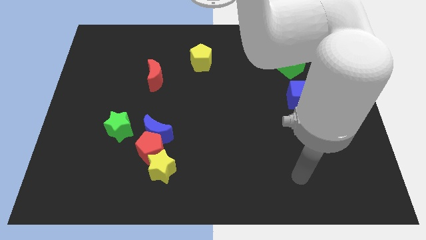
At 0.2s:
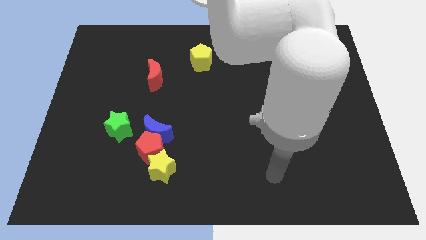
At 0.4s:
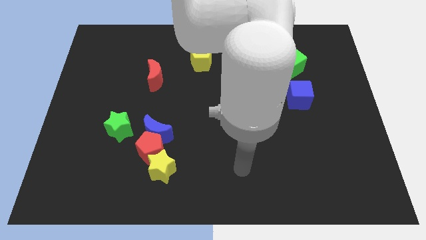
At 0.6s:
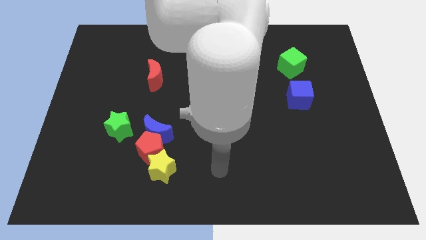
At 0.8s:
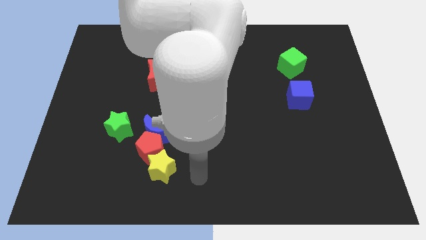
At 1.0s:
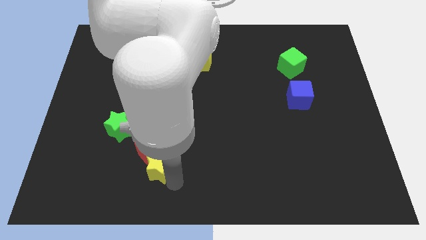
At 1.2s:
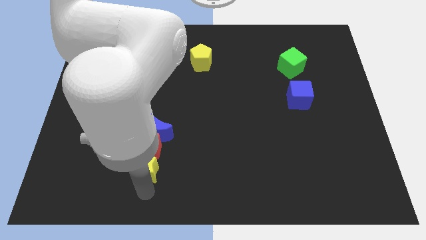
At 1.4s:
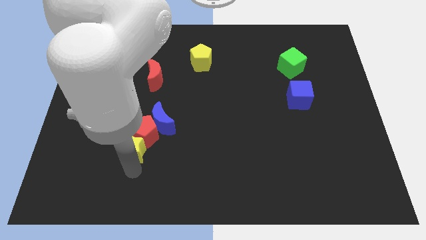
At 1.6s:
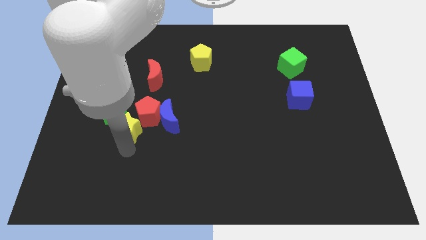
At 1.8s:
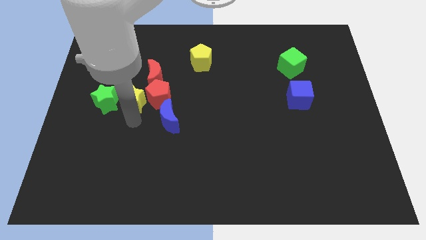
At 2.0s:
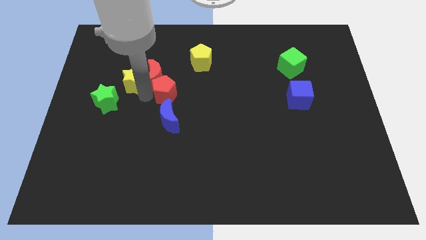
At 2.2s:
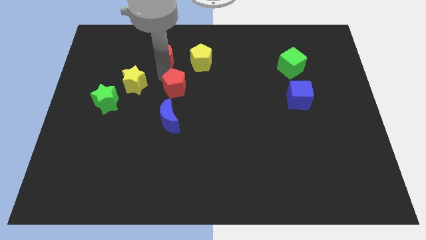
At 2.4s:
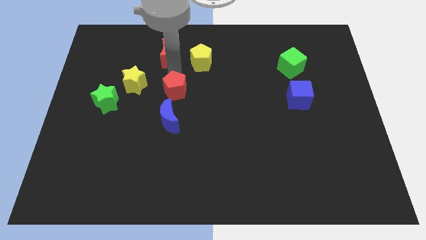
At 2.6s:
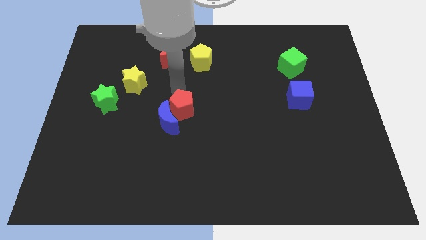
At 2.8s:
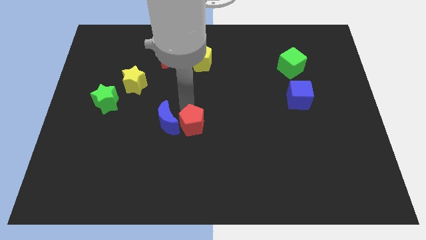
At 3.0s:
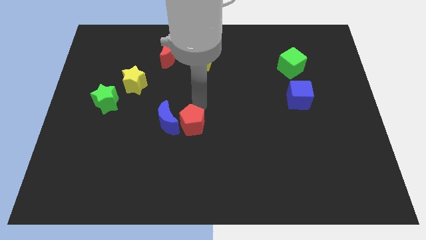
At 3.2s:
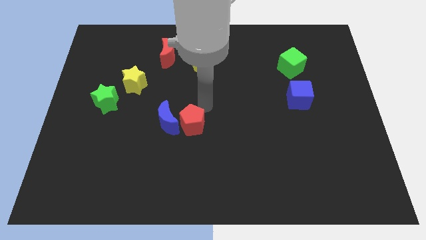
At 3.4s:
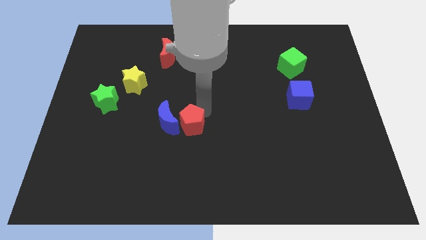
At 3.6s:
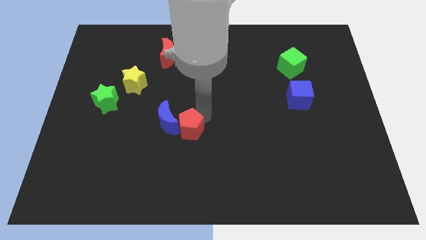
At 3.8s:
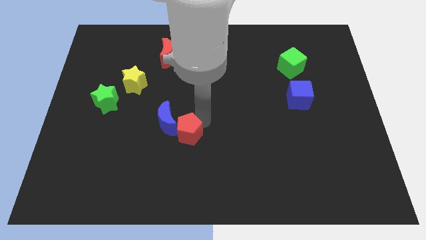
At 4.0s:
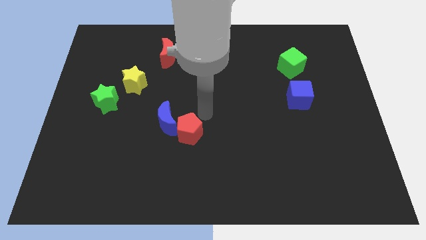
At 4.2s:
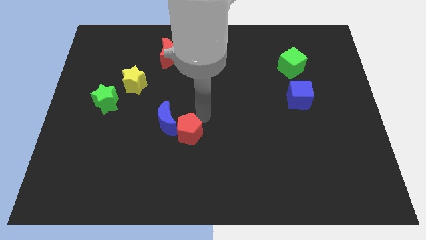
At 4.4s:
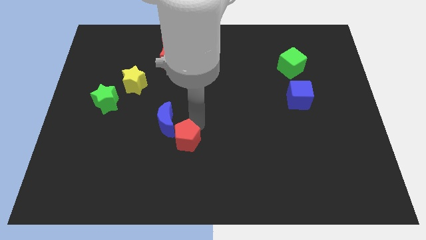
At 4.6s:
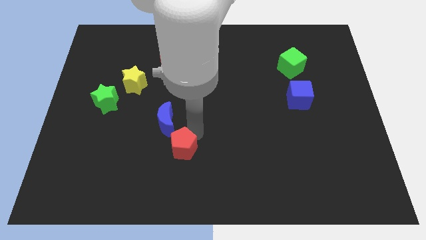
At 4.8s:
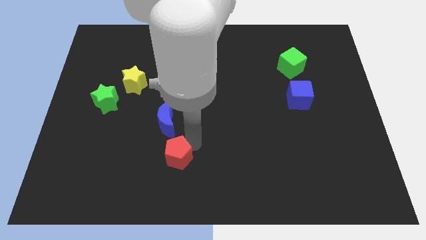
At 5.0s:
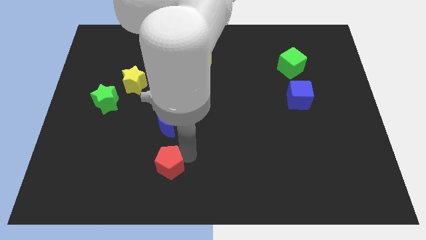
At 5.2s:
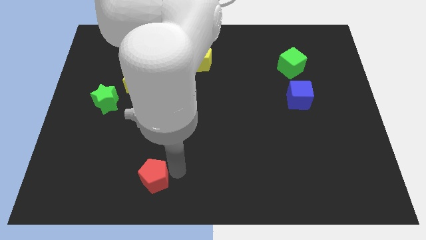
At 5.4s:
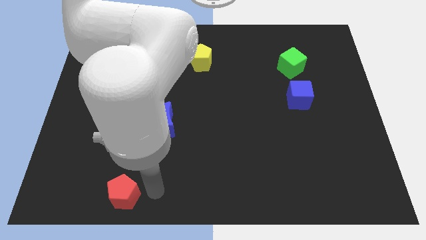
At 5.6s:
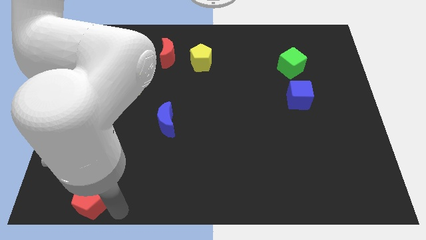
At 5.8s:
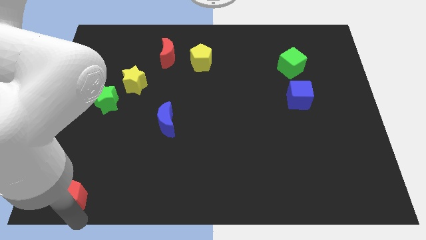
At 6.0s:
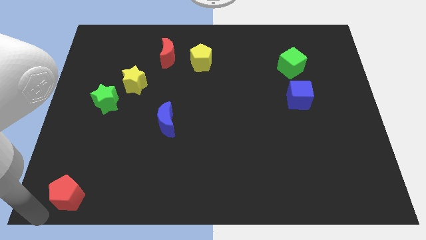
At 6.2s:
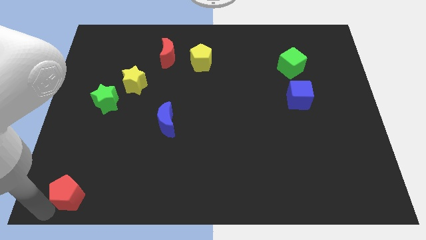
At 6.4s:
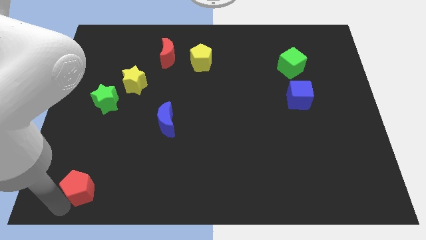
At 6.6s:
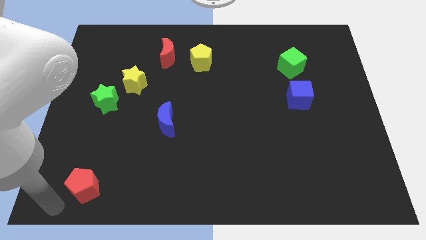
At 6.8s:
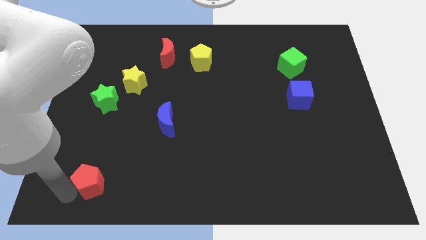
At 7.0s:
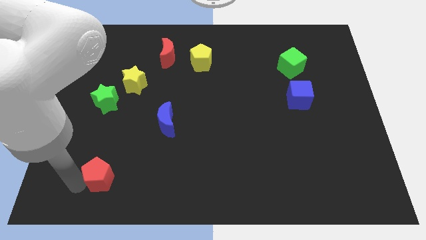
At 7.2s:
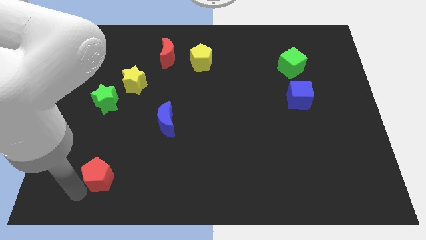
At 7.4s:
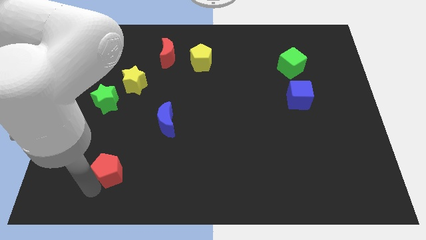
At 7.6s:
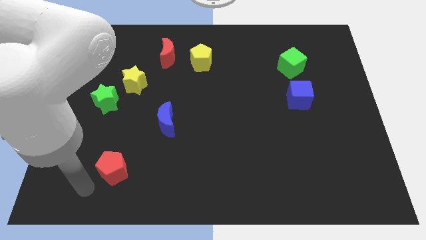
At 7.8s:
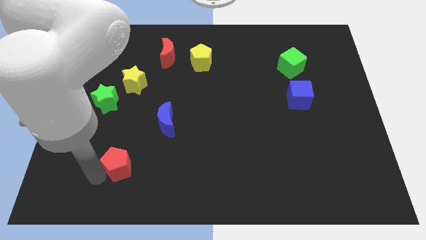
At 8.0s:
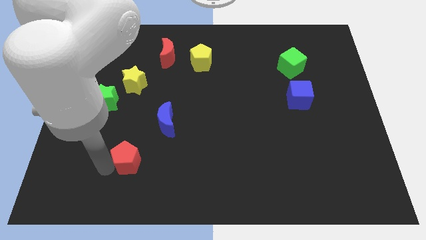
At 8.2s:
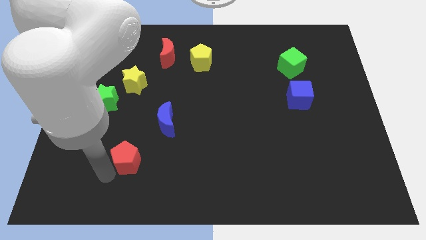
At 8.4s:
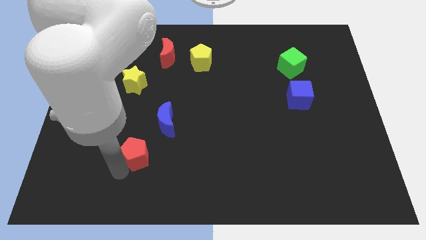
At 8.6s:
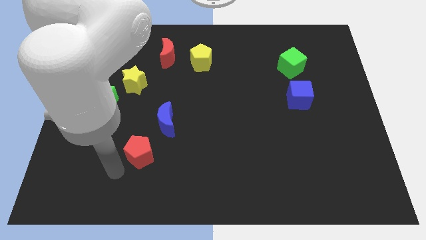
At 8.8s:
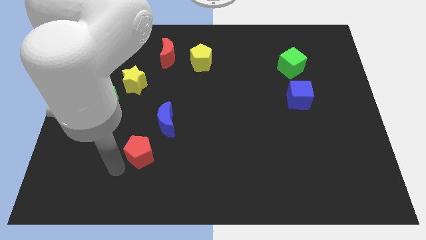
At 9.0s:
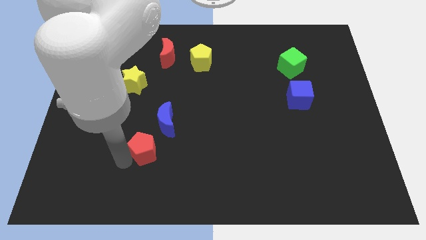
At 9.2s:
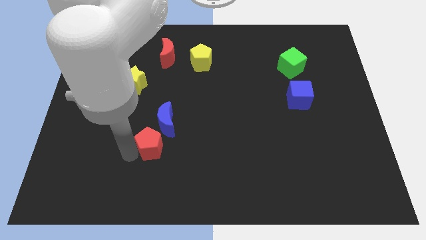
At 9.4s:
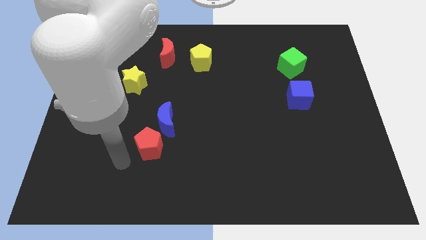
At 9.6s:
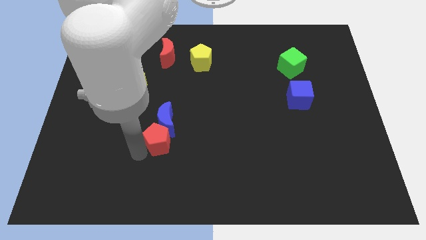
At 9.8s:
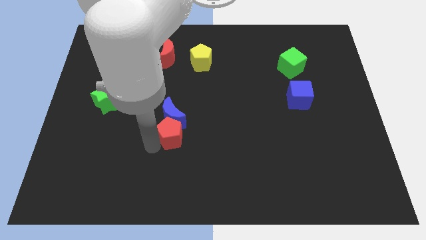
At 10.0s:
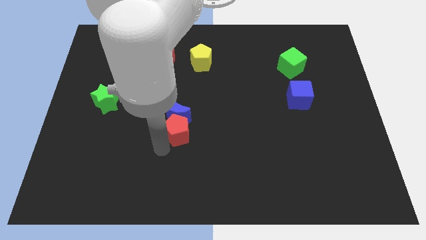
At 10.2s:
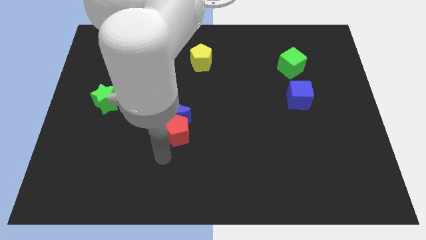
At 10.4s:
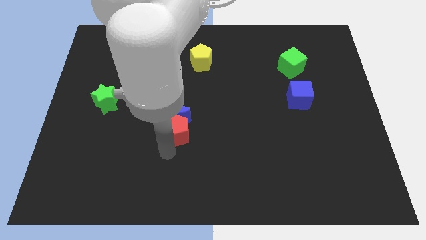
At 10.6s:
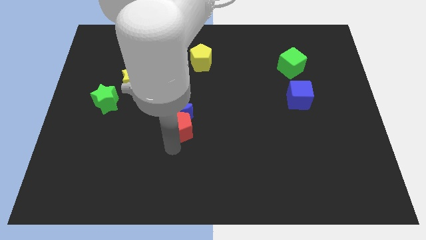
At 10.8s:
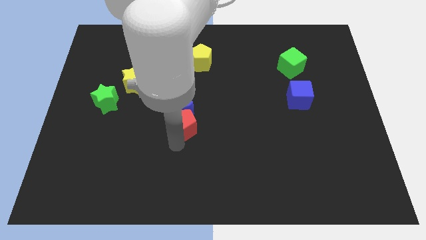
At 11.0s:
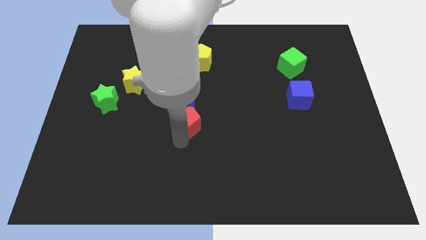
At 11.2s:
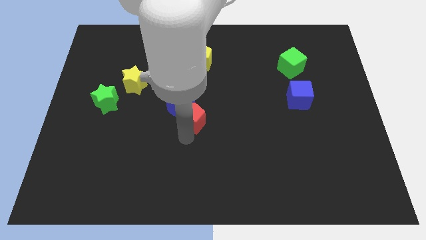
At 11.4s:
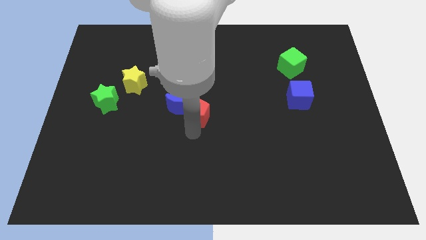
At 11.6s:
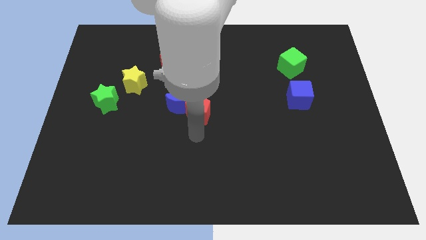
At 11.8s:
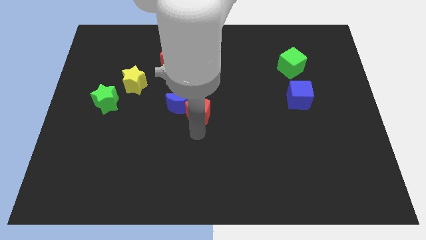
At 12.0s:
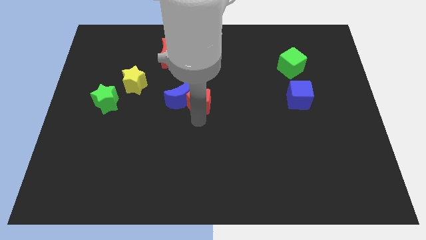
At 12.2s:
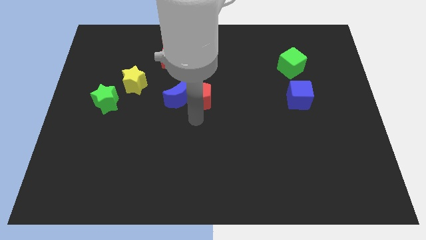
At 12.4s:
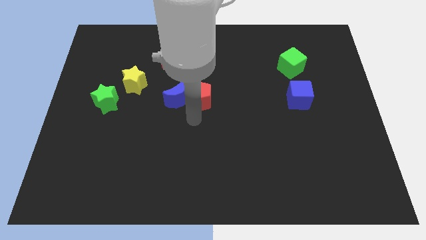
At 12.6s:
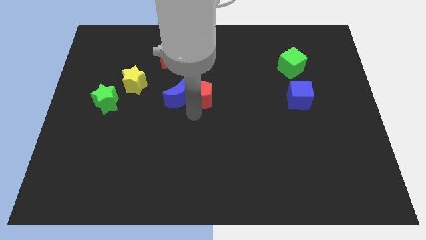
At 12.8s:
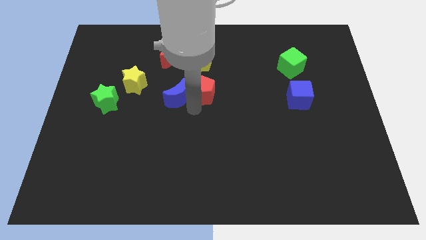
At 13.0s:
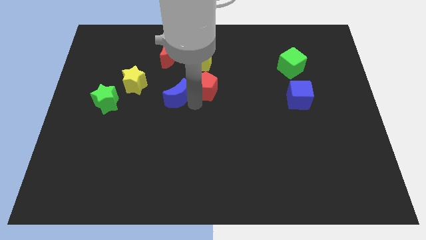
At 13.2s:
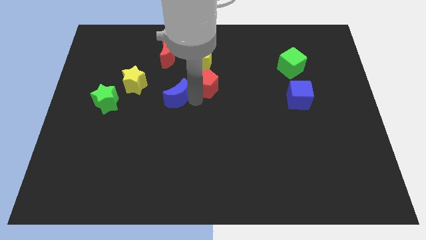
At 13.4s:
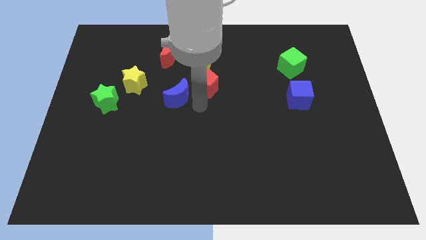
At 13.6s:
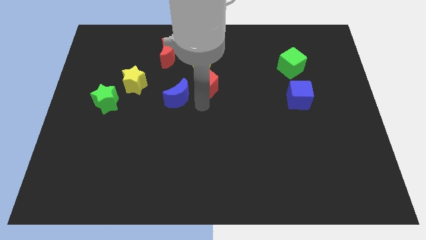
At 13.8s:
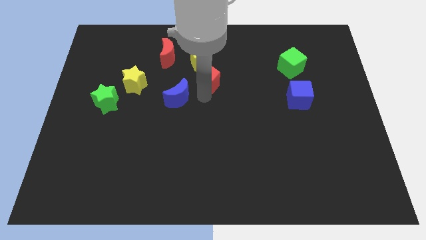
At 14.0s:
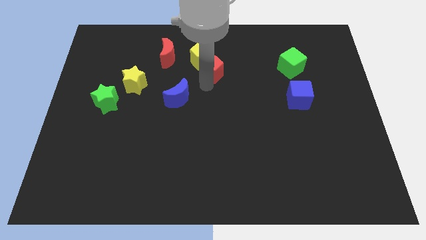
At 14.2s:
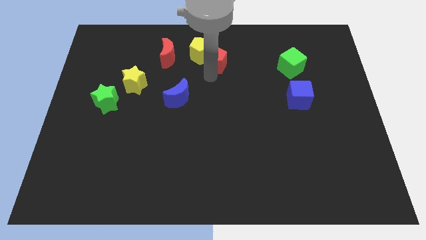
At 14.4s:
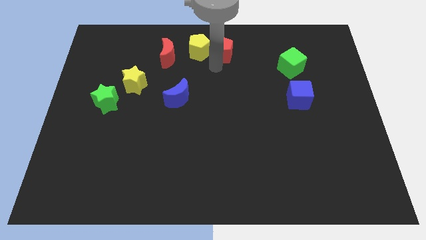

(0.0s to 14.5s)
slide the red pentagon to the top side
